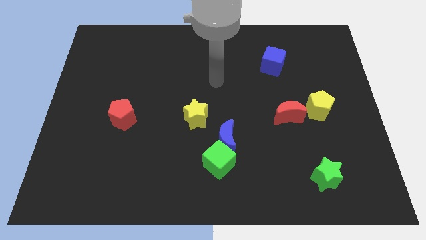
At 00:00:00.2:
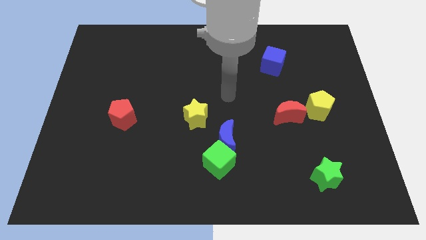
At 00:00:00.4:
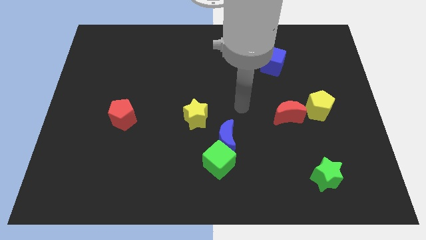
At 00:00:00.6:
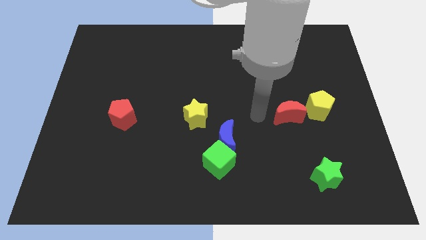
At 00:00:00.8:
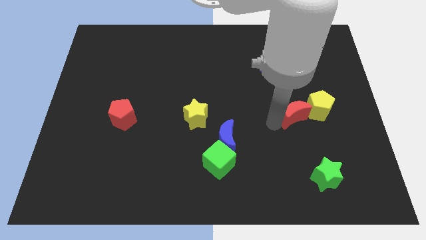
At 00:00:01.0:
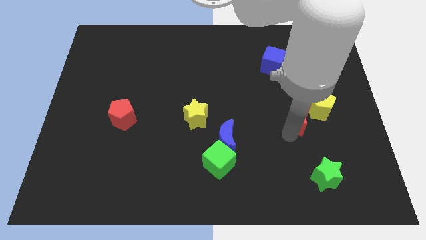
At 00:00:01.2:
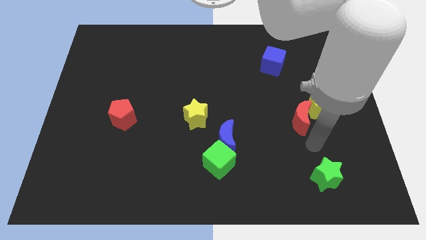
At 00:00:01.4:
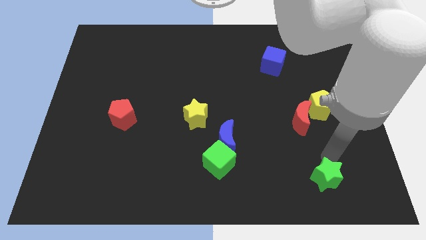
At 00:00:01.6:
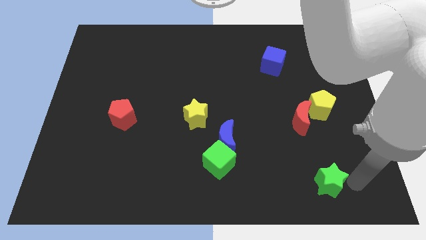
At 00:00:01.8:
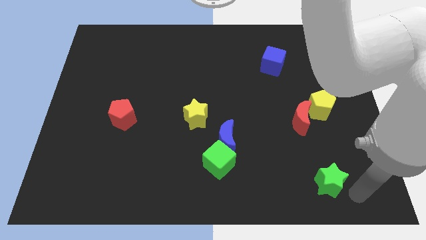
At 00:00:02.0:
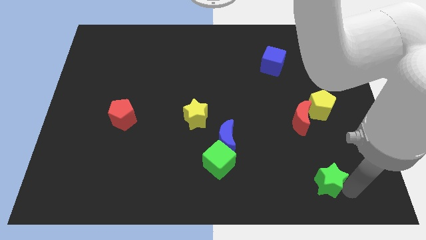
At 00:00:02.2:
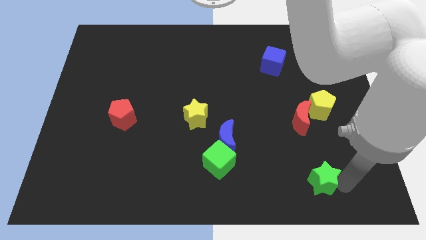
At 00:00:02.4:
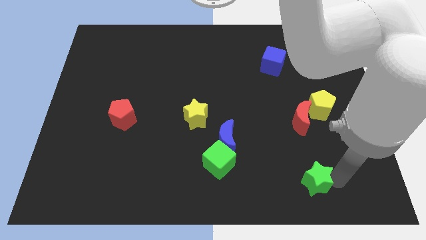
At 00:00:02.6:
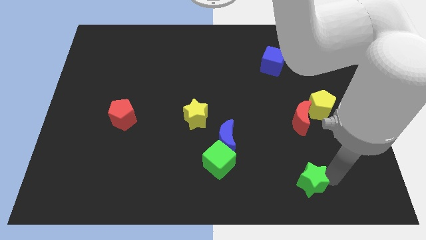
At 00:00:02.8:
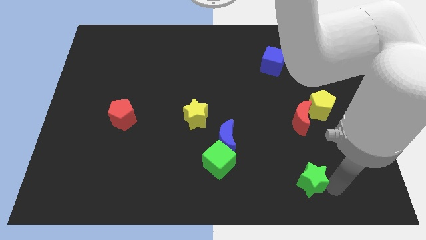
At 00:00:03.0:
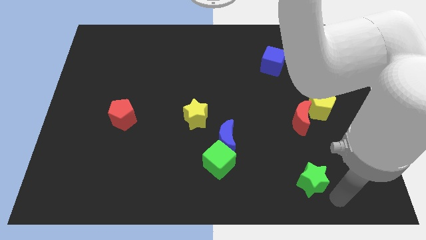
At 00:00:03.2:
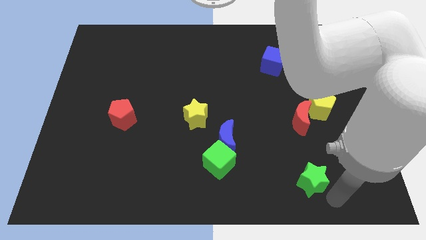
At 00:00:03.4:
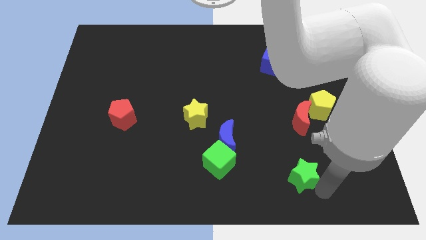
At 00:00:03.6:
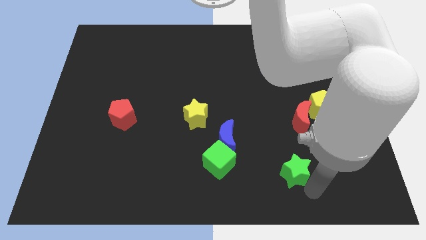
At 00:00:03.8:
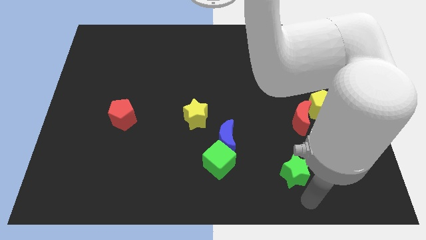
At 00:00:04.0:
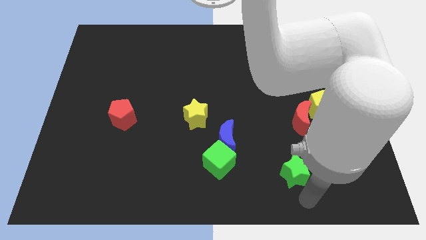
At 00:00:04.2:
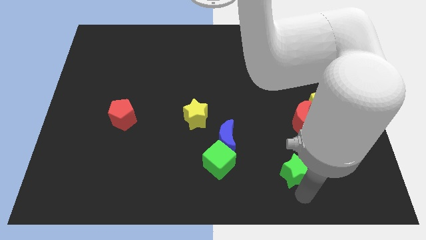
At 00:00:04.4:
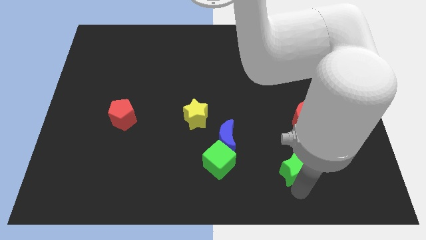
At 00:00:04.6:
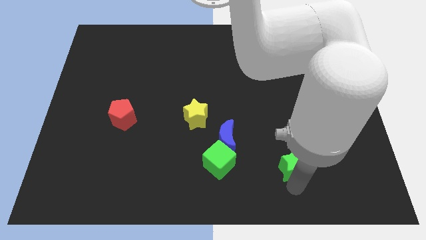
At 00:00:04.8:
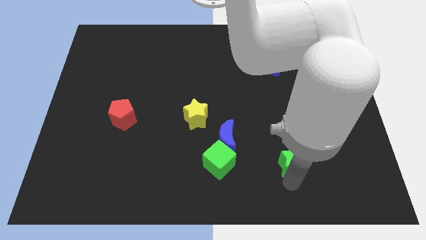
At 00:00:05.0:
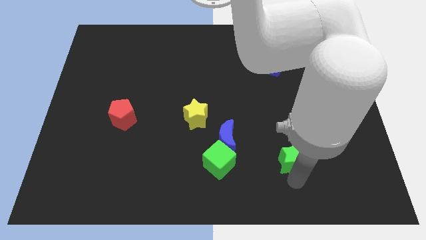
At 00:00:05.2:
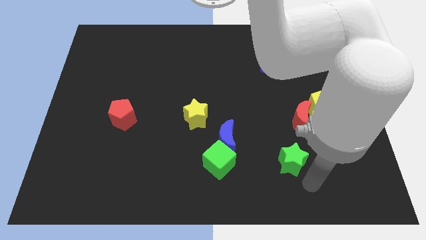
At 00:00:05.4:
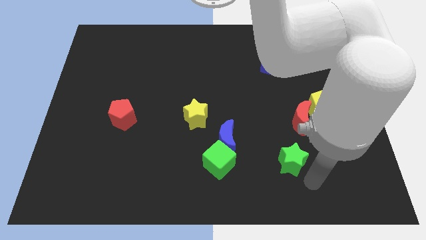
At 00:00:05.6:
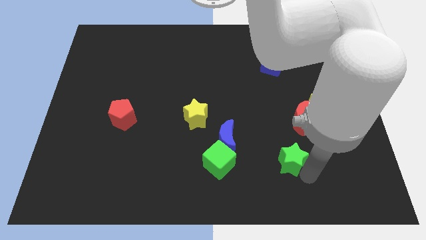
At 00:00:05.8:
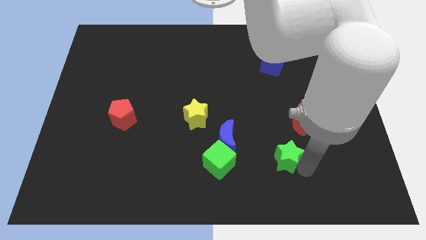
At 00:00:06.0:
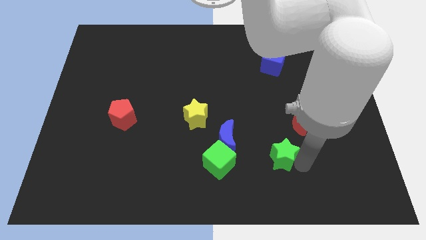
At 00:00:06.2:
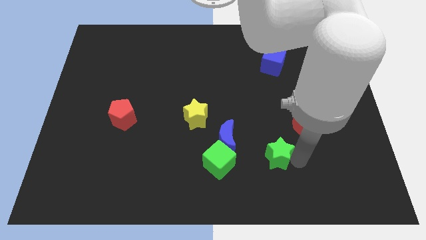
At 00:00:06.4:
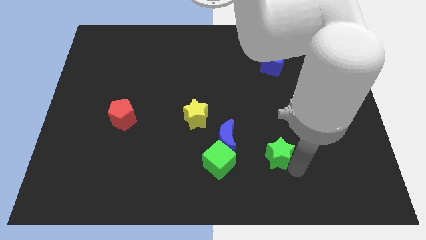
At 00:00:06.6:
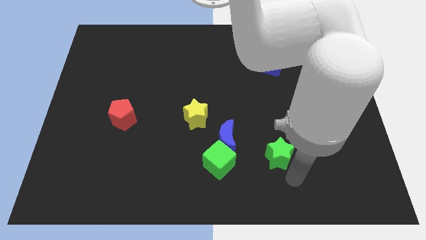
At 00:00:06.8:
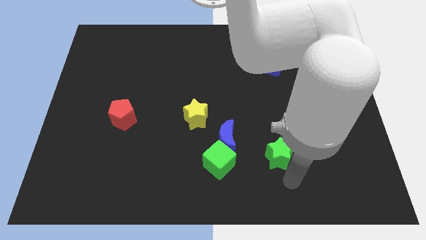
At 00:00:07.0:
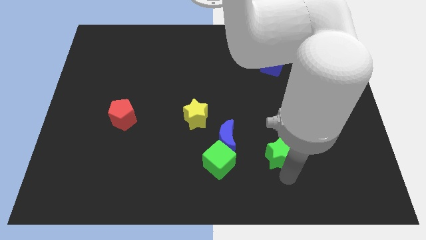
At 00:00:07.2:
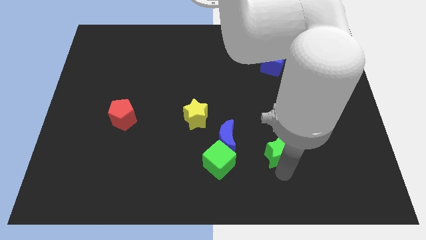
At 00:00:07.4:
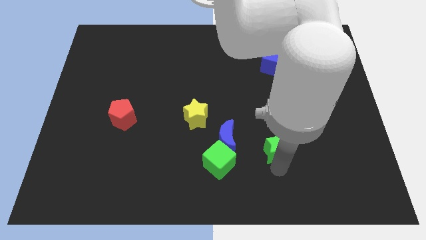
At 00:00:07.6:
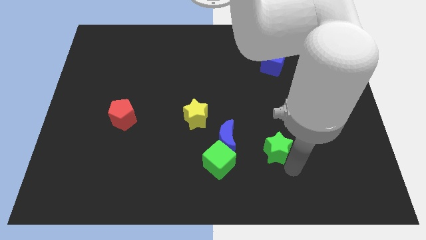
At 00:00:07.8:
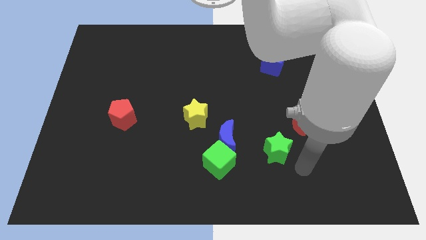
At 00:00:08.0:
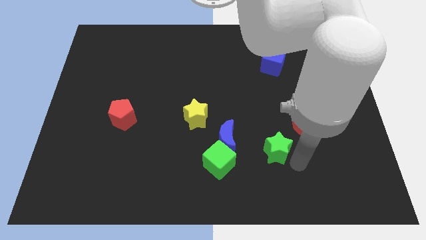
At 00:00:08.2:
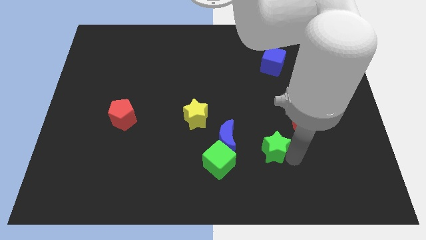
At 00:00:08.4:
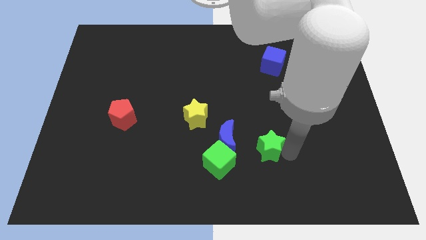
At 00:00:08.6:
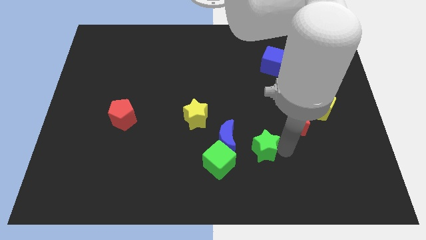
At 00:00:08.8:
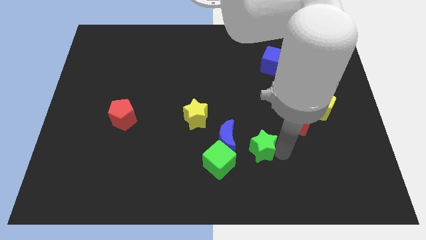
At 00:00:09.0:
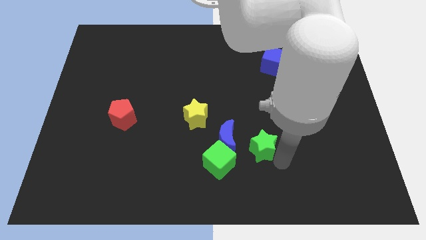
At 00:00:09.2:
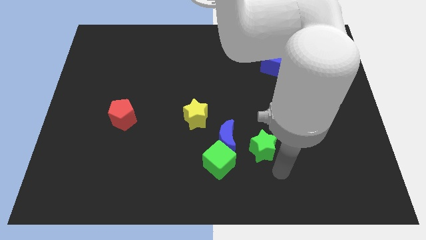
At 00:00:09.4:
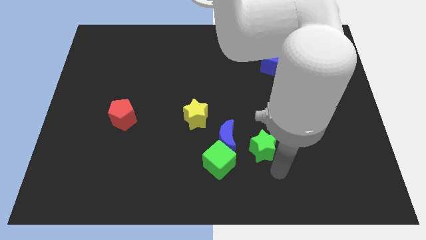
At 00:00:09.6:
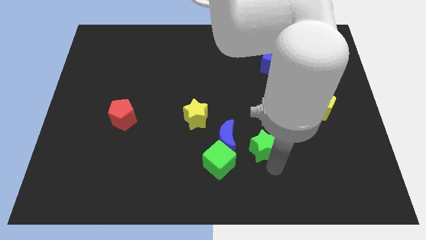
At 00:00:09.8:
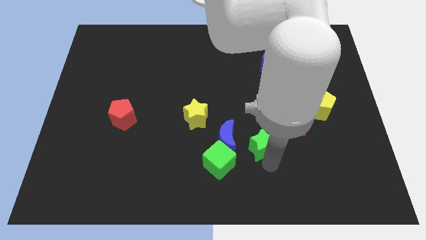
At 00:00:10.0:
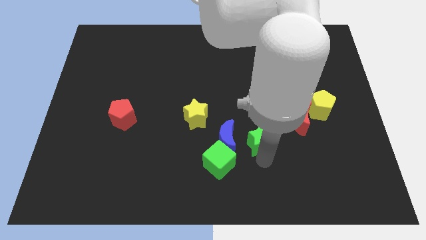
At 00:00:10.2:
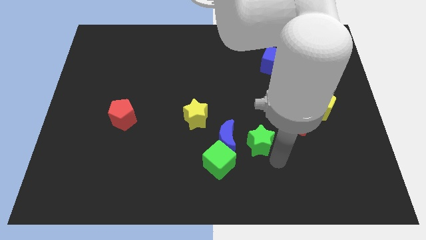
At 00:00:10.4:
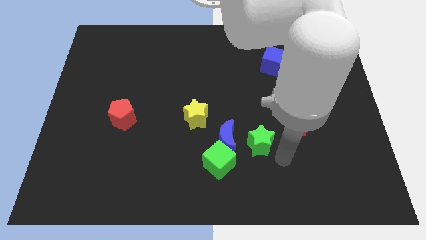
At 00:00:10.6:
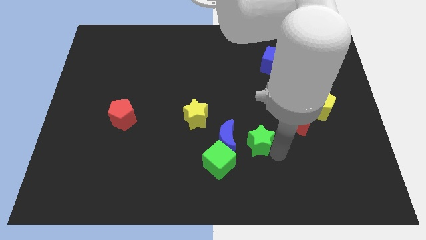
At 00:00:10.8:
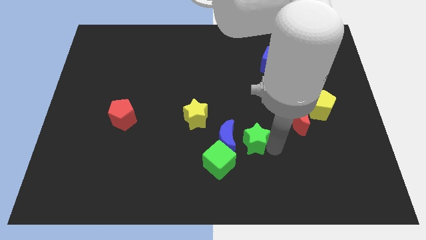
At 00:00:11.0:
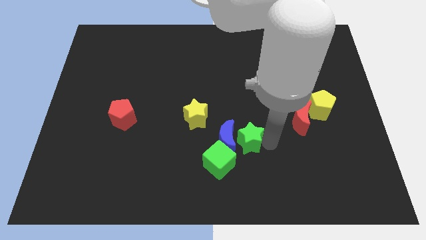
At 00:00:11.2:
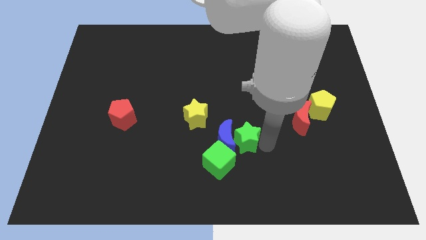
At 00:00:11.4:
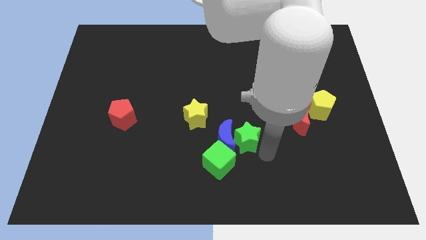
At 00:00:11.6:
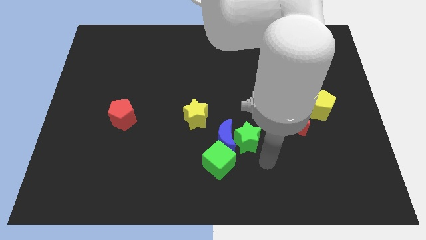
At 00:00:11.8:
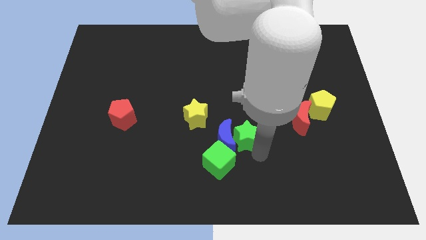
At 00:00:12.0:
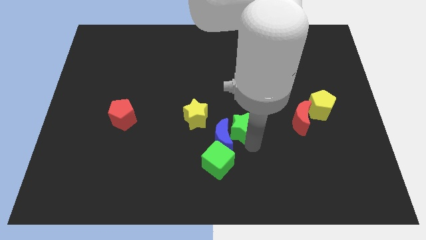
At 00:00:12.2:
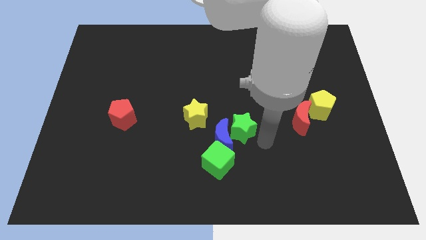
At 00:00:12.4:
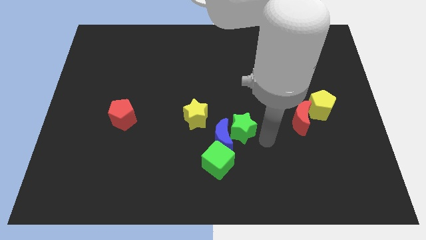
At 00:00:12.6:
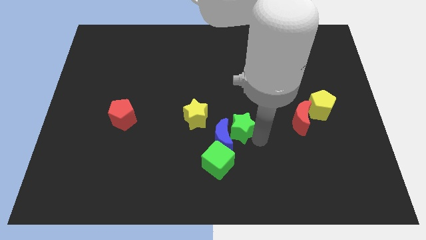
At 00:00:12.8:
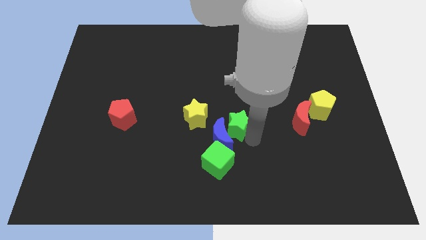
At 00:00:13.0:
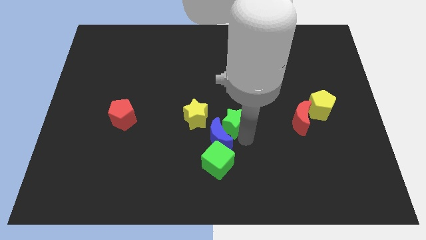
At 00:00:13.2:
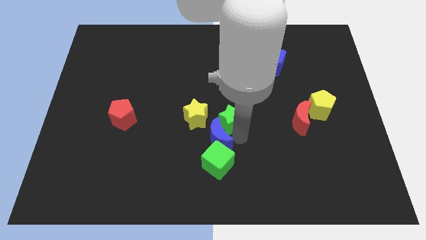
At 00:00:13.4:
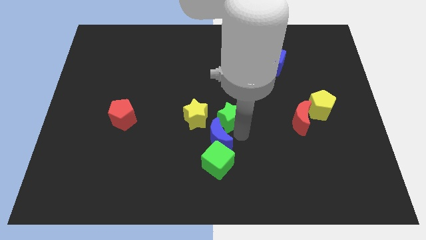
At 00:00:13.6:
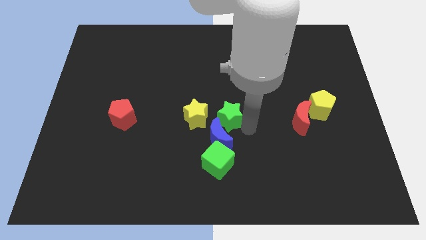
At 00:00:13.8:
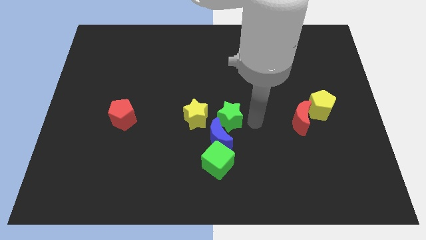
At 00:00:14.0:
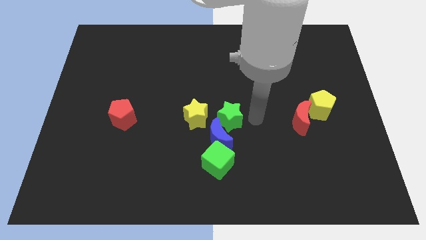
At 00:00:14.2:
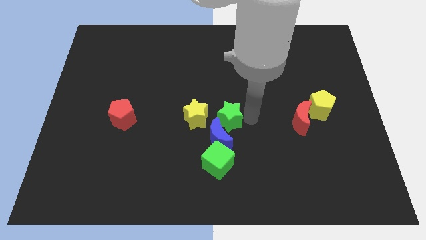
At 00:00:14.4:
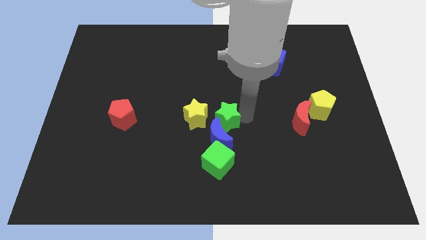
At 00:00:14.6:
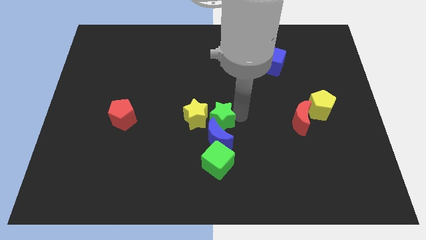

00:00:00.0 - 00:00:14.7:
slide the green star close to the yellow star

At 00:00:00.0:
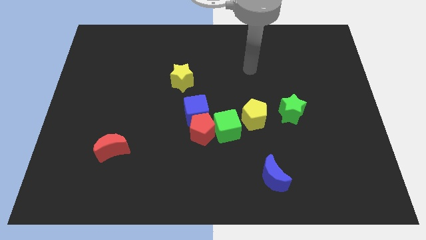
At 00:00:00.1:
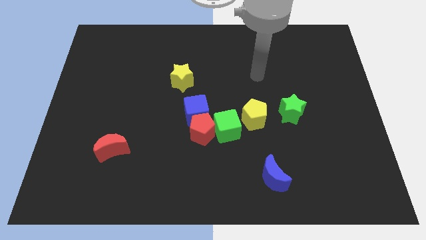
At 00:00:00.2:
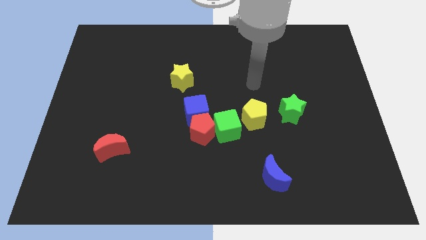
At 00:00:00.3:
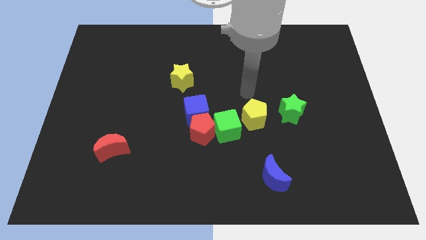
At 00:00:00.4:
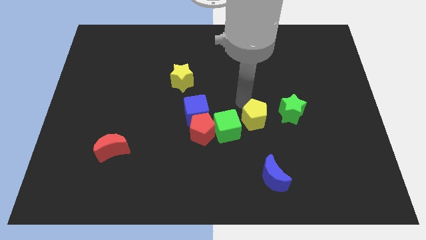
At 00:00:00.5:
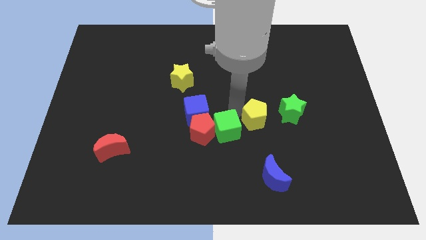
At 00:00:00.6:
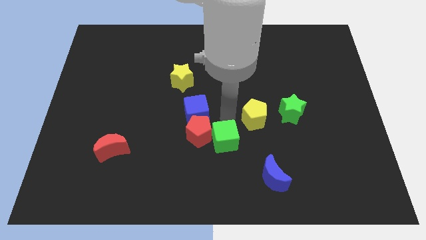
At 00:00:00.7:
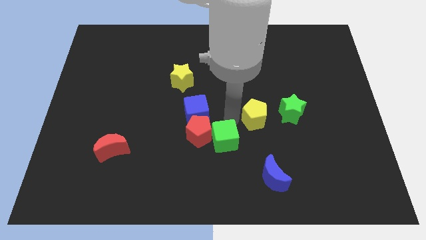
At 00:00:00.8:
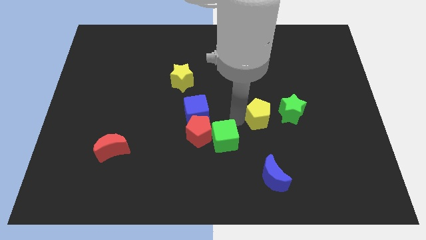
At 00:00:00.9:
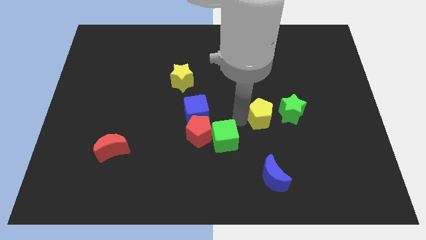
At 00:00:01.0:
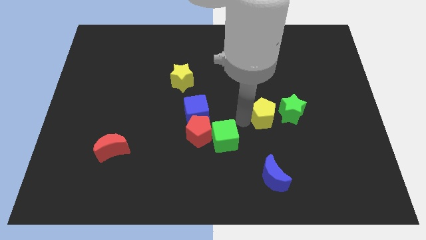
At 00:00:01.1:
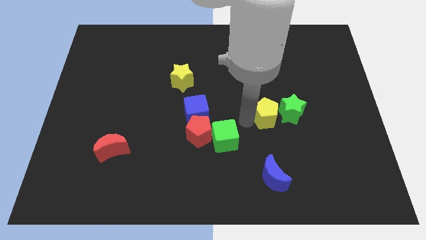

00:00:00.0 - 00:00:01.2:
put the yellow pentagon towards the green star
